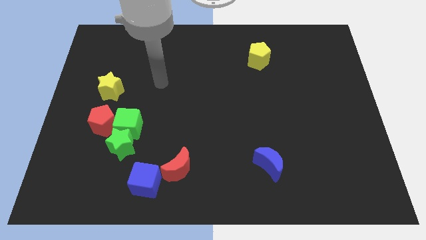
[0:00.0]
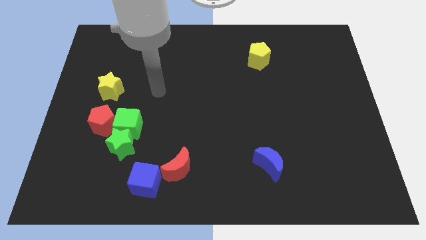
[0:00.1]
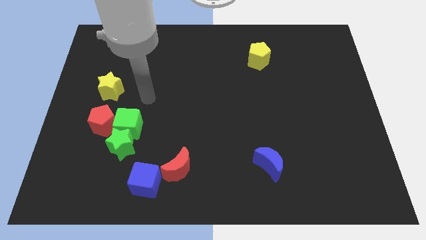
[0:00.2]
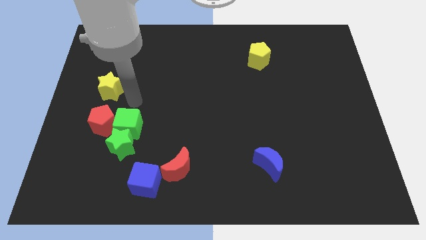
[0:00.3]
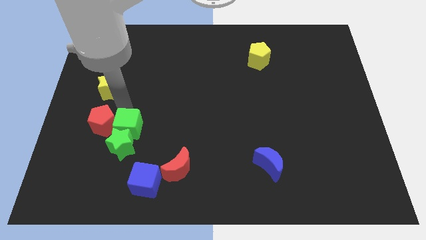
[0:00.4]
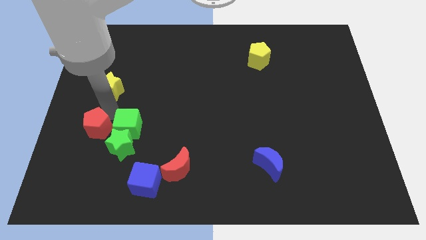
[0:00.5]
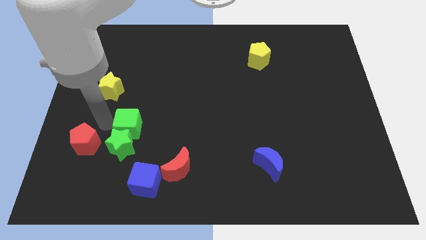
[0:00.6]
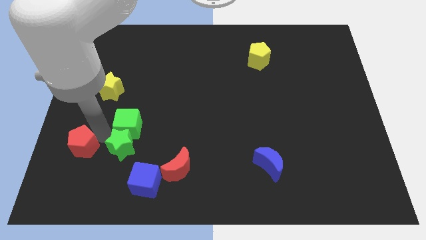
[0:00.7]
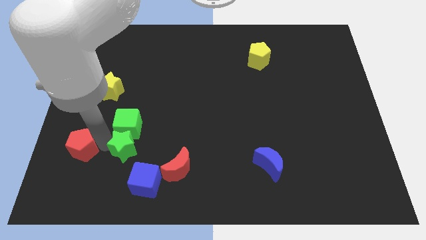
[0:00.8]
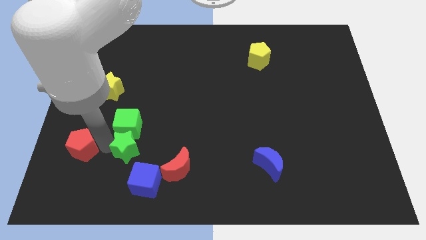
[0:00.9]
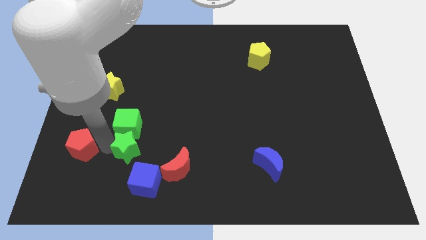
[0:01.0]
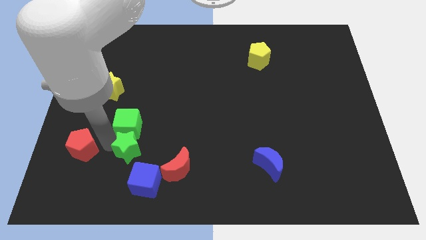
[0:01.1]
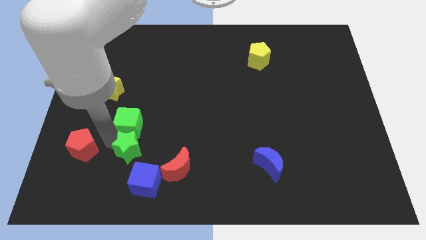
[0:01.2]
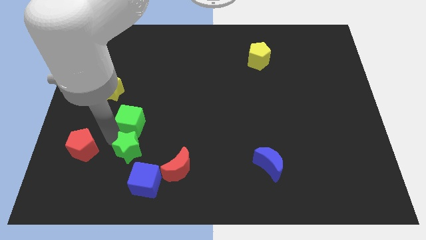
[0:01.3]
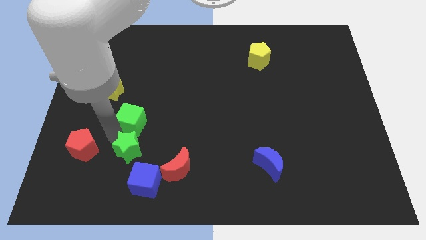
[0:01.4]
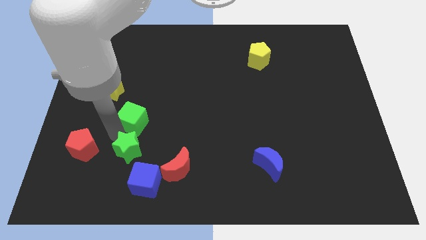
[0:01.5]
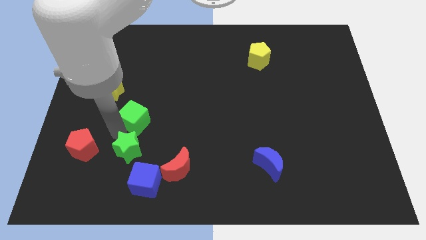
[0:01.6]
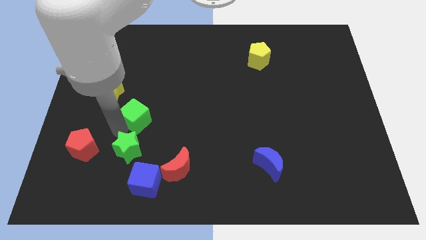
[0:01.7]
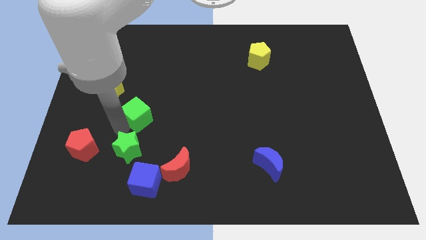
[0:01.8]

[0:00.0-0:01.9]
pull the green cube apart from the green star and red pentagon

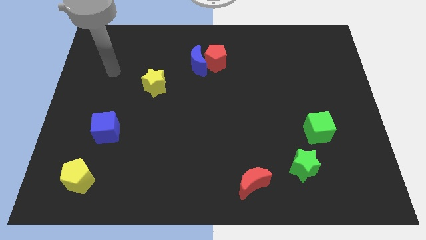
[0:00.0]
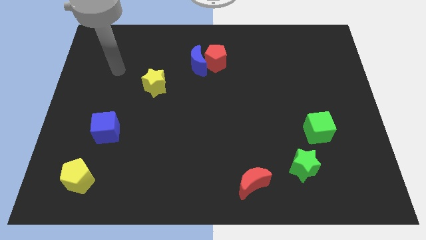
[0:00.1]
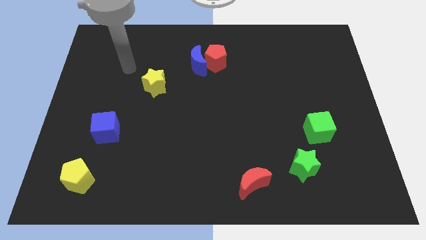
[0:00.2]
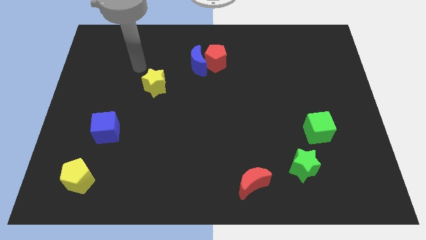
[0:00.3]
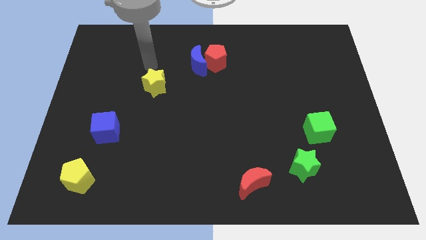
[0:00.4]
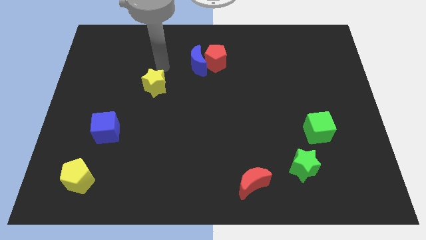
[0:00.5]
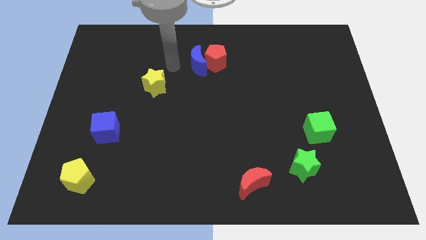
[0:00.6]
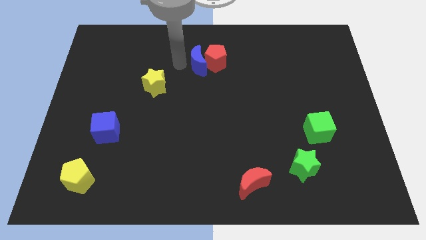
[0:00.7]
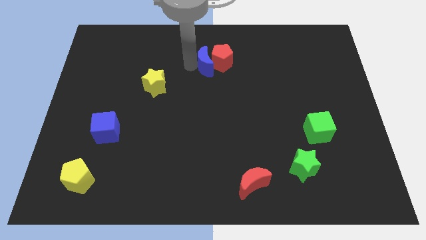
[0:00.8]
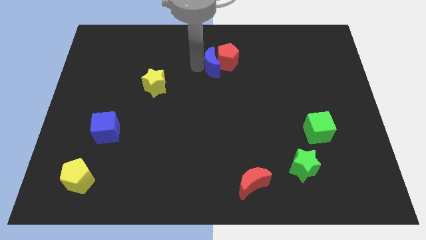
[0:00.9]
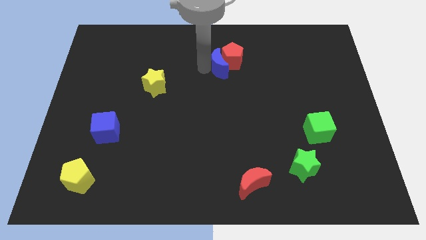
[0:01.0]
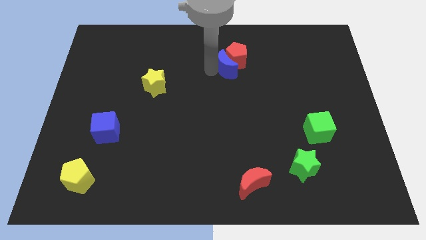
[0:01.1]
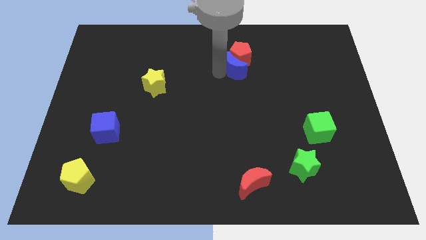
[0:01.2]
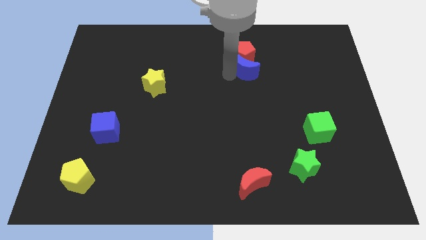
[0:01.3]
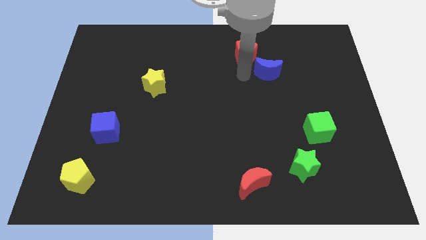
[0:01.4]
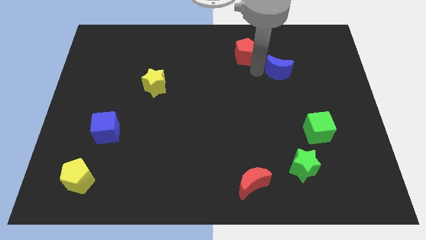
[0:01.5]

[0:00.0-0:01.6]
separate the red pentagon from the blue moon

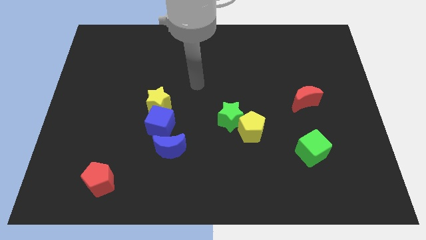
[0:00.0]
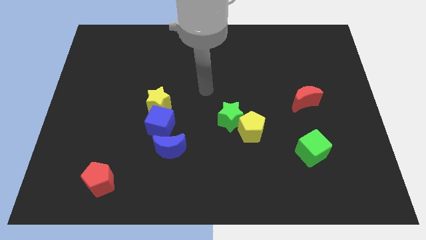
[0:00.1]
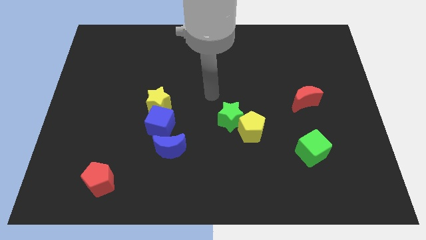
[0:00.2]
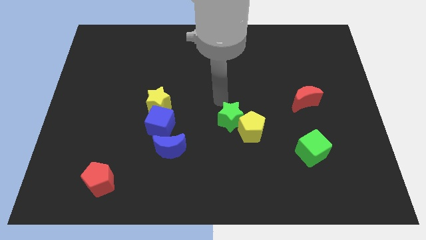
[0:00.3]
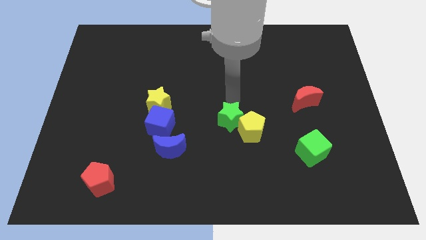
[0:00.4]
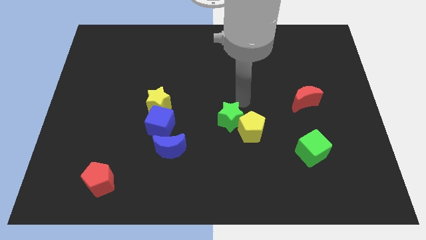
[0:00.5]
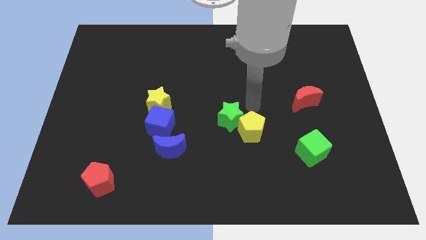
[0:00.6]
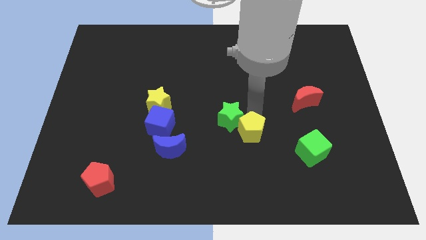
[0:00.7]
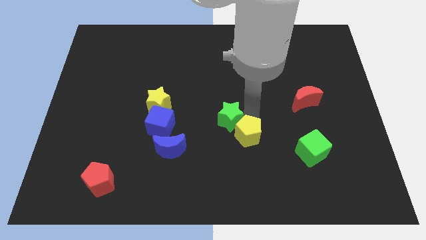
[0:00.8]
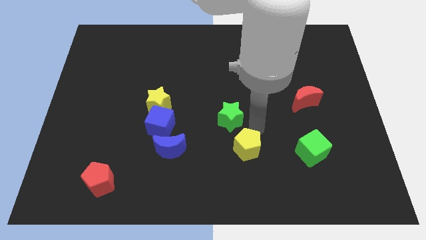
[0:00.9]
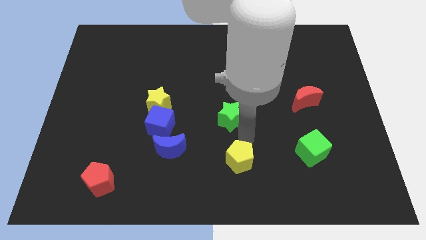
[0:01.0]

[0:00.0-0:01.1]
move the green star away from the yellow pentagon

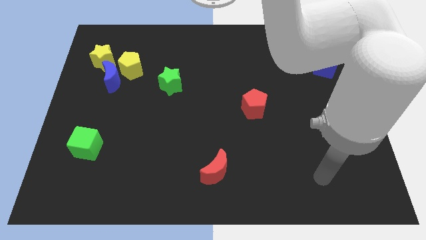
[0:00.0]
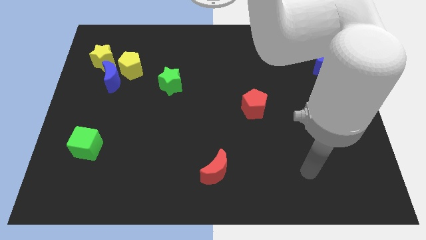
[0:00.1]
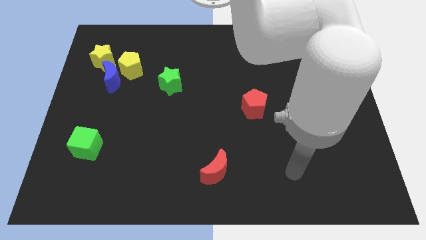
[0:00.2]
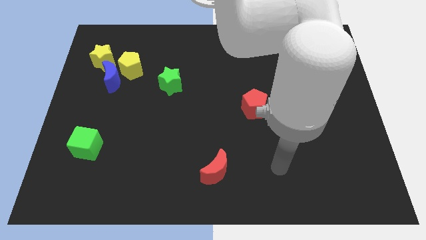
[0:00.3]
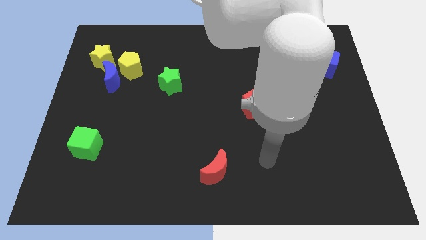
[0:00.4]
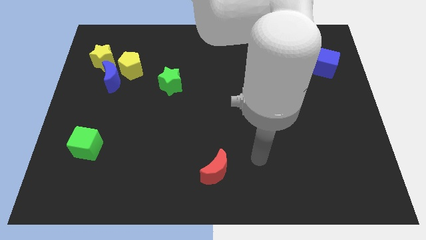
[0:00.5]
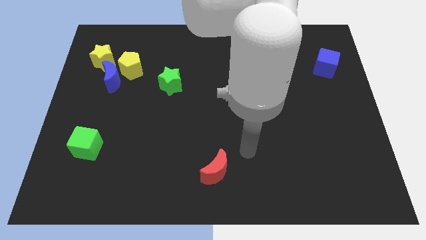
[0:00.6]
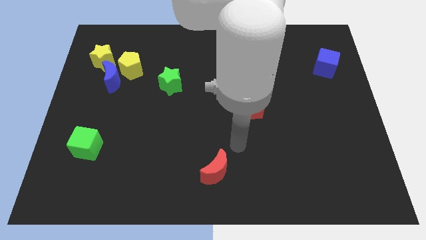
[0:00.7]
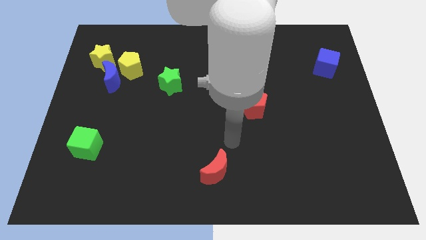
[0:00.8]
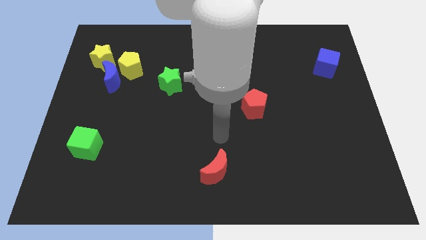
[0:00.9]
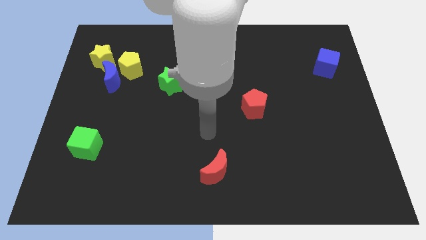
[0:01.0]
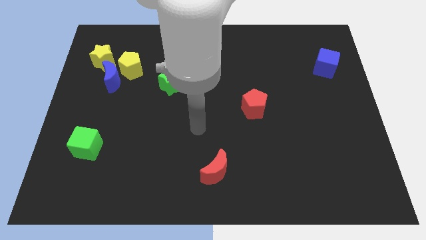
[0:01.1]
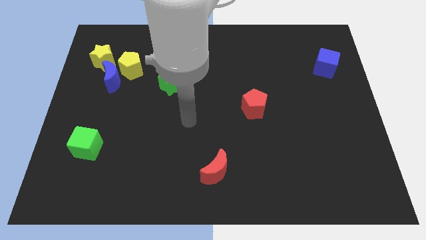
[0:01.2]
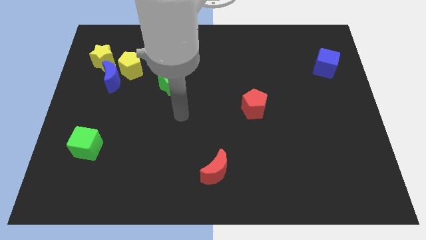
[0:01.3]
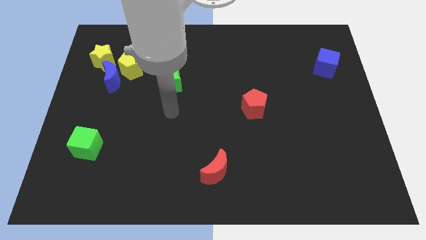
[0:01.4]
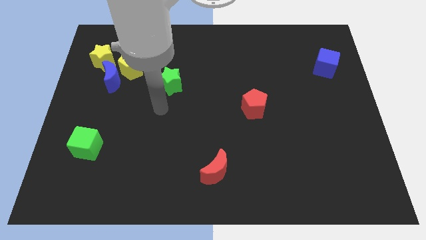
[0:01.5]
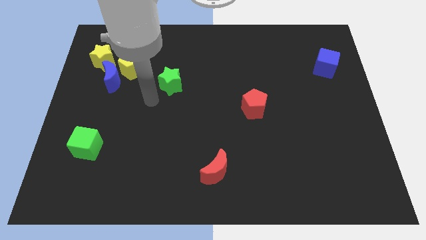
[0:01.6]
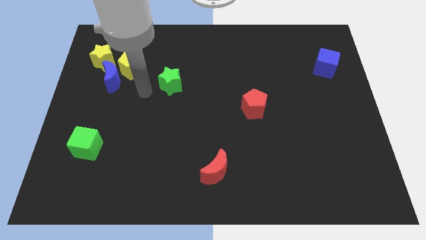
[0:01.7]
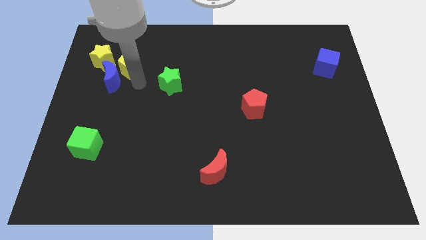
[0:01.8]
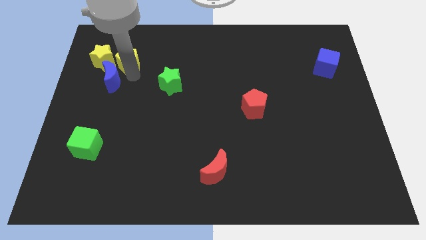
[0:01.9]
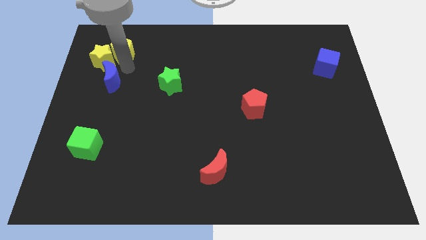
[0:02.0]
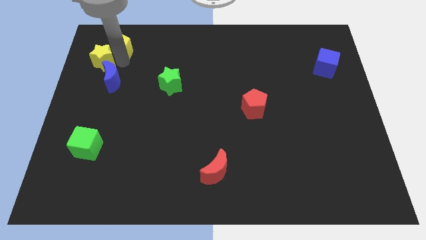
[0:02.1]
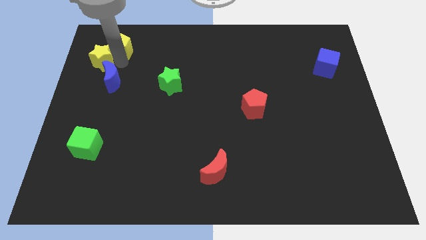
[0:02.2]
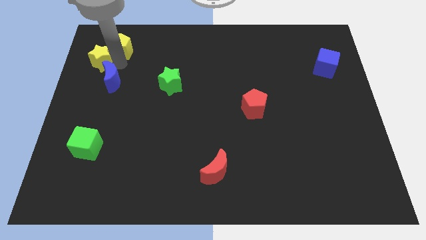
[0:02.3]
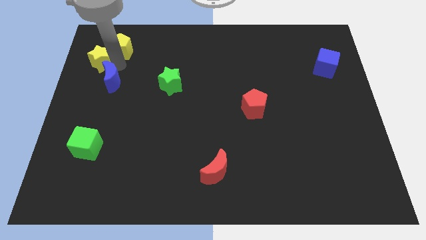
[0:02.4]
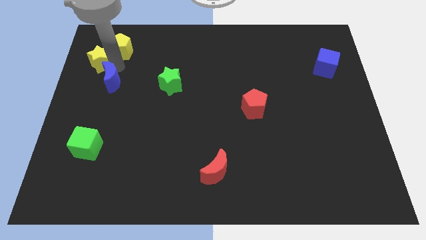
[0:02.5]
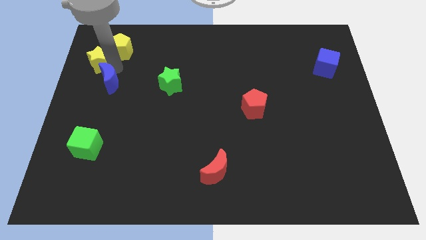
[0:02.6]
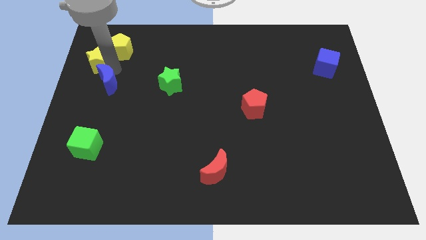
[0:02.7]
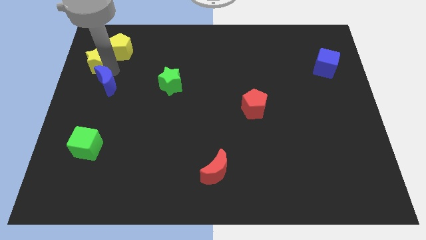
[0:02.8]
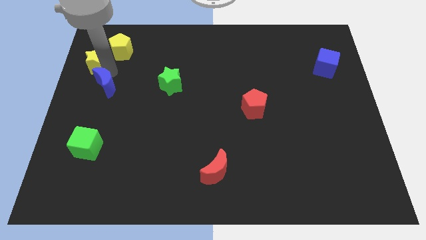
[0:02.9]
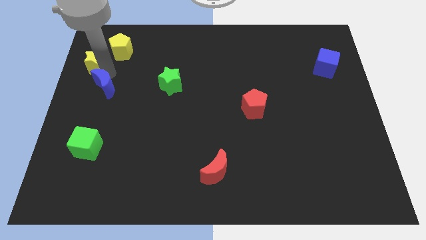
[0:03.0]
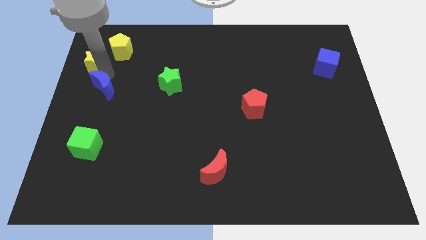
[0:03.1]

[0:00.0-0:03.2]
separate the blue moon from the yellow pentagon and yellow star

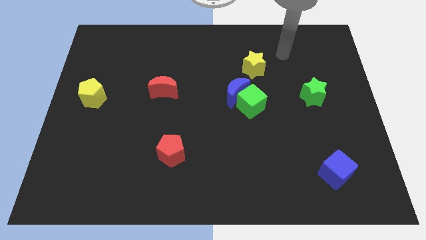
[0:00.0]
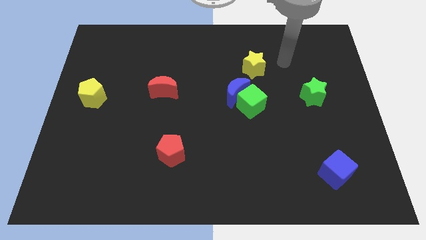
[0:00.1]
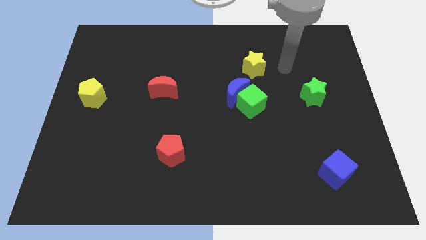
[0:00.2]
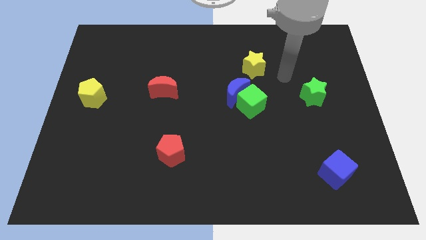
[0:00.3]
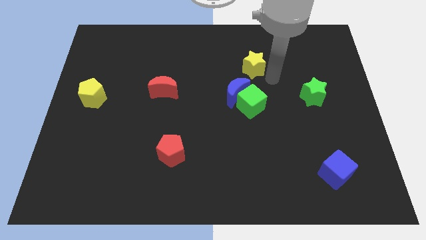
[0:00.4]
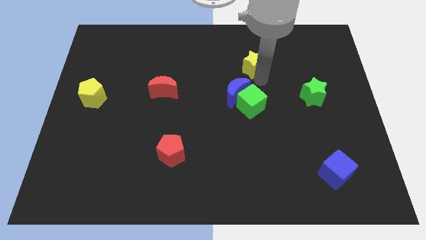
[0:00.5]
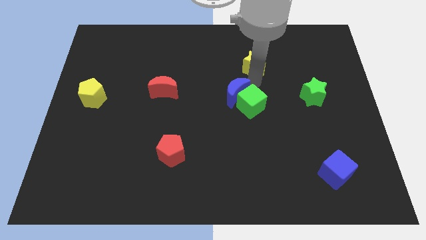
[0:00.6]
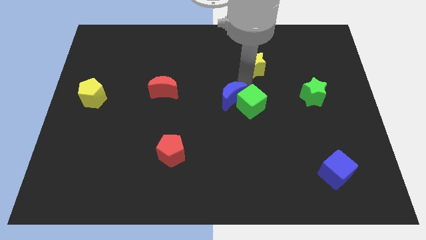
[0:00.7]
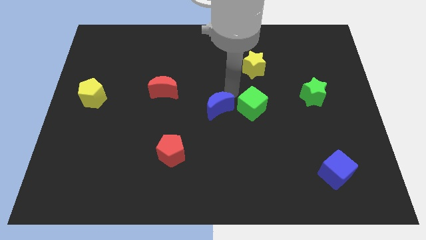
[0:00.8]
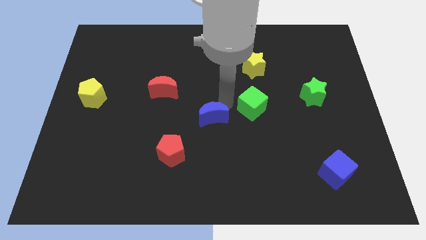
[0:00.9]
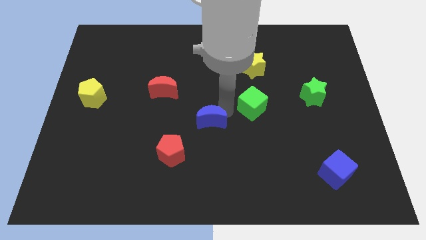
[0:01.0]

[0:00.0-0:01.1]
separate the green cube from the blue moon

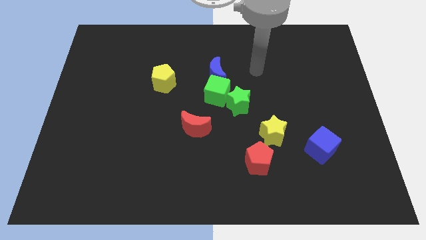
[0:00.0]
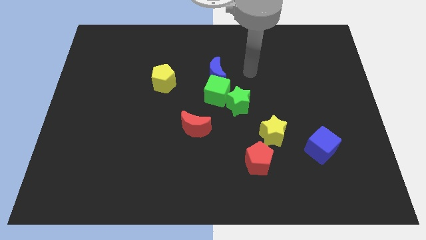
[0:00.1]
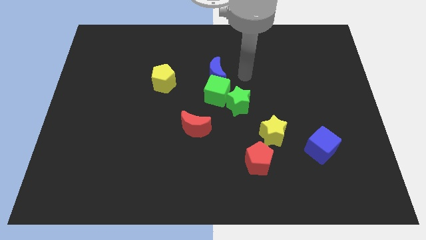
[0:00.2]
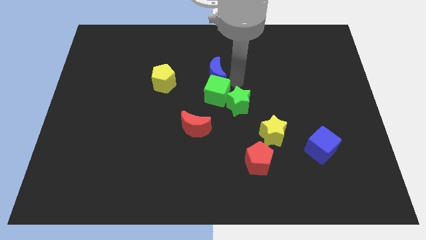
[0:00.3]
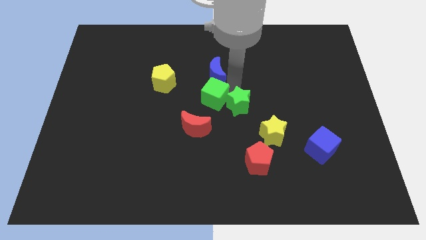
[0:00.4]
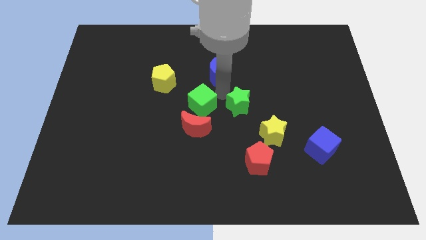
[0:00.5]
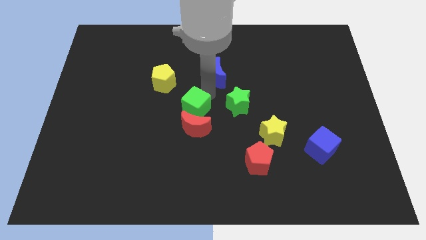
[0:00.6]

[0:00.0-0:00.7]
pull the blue moon apart from the green cube
